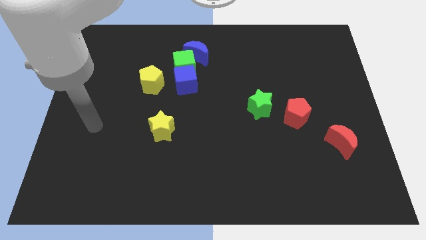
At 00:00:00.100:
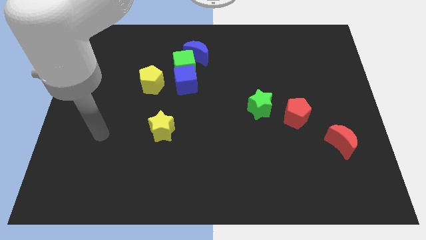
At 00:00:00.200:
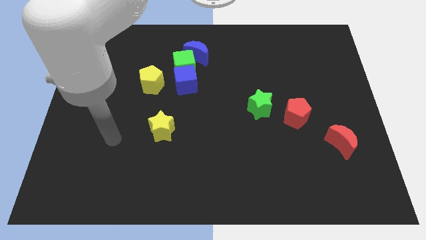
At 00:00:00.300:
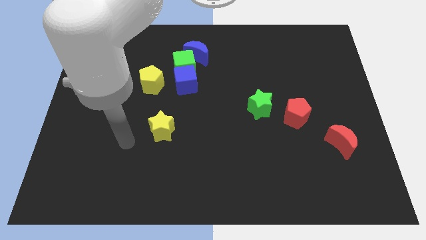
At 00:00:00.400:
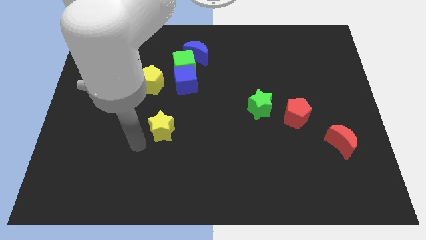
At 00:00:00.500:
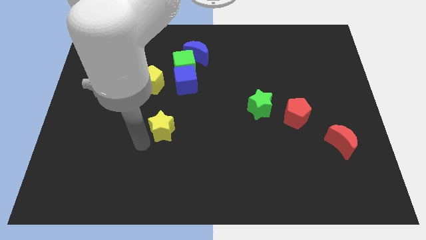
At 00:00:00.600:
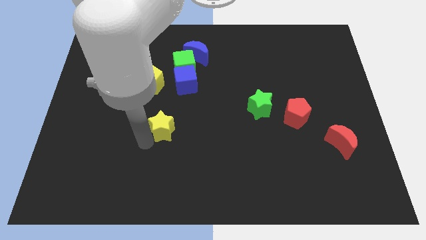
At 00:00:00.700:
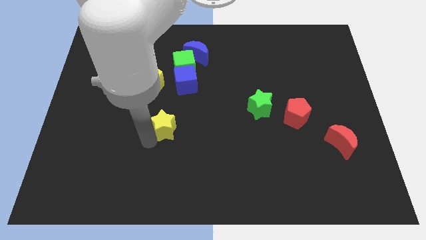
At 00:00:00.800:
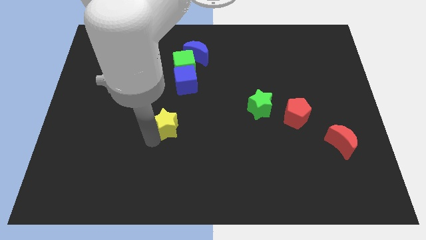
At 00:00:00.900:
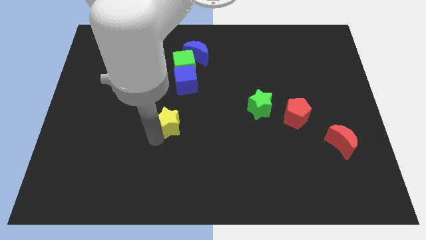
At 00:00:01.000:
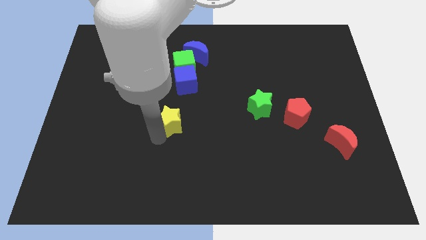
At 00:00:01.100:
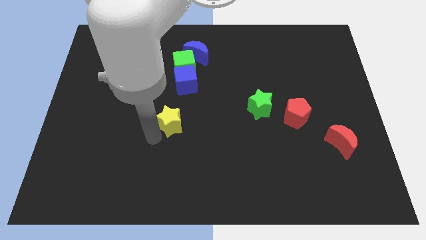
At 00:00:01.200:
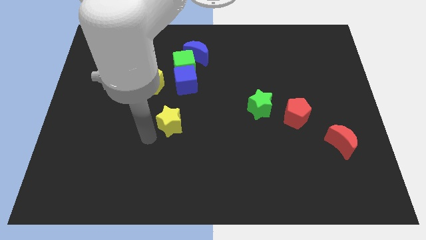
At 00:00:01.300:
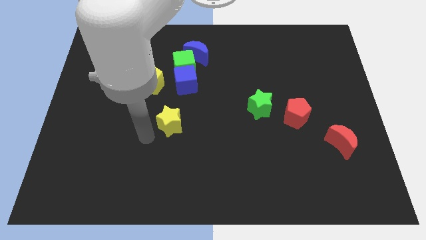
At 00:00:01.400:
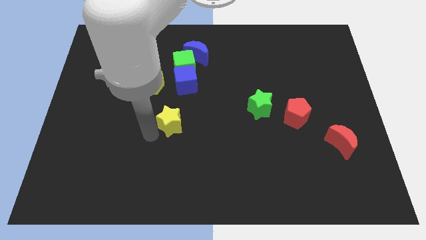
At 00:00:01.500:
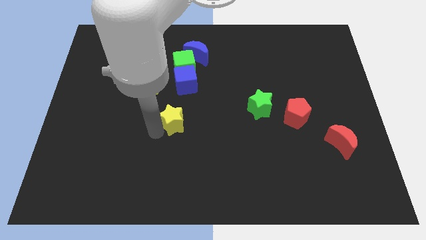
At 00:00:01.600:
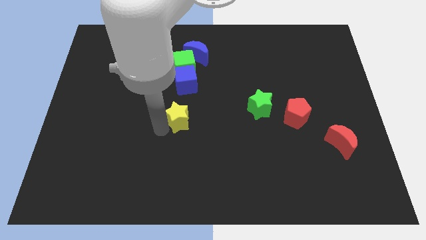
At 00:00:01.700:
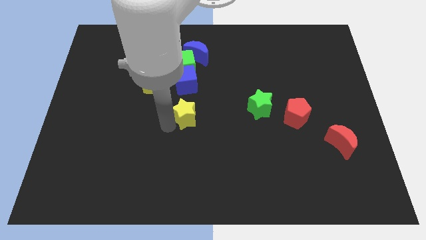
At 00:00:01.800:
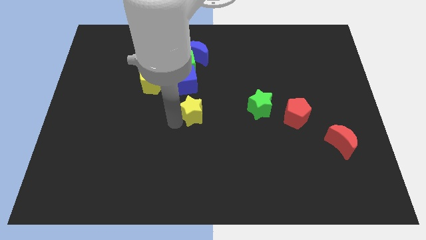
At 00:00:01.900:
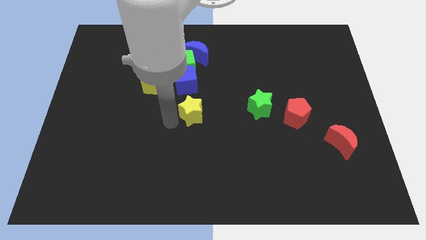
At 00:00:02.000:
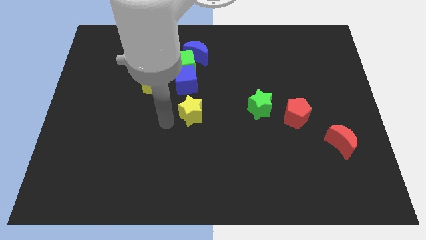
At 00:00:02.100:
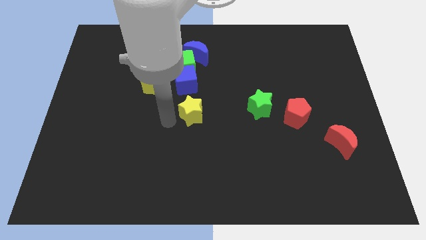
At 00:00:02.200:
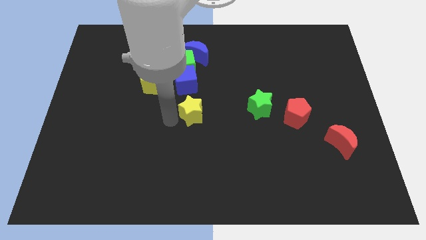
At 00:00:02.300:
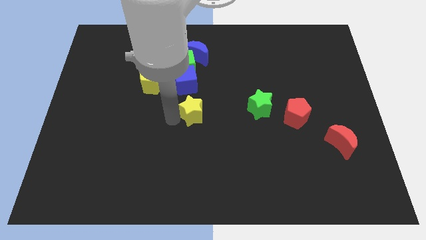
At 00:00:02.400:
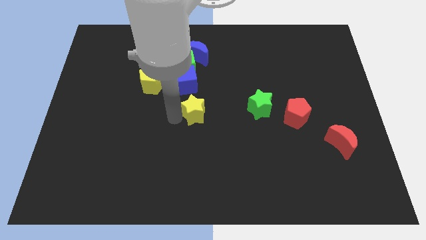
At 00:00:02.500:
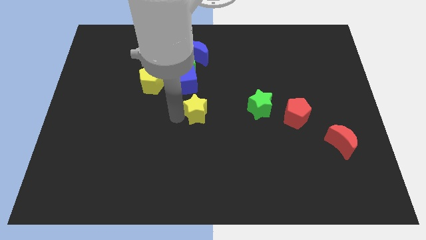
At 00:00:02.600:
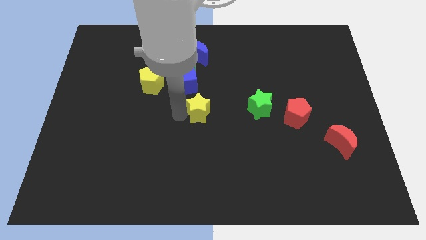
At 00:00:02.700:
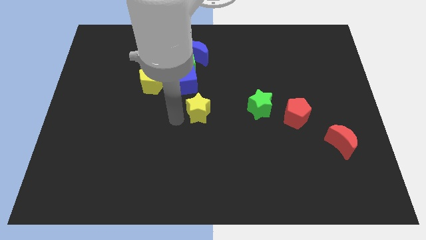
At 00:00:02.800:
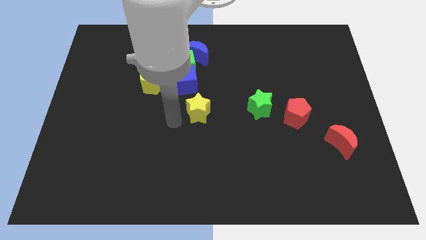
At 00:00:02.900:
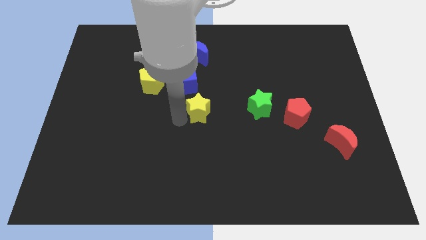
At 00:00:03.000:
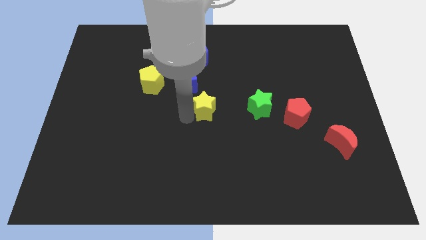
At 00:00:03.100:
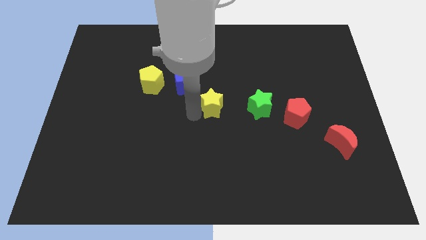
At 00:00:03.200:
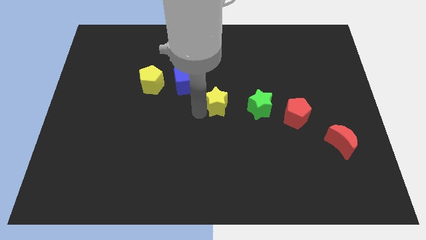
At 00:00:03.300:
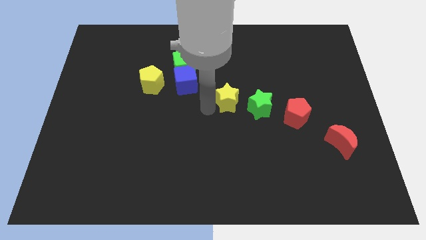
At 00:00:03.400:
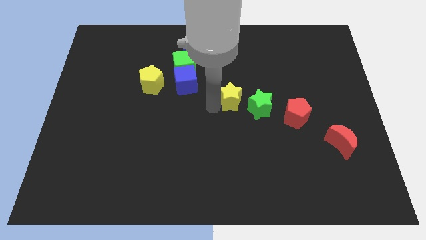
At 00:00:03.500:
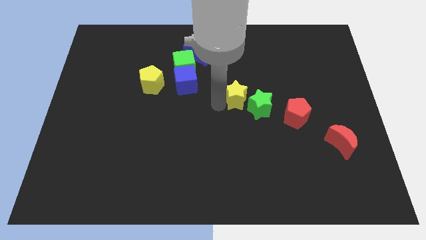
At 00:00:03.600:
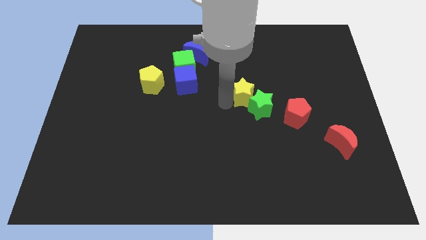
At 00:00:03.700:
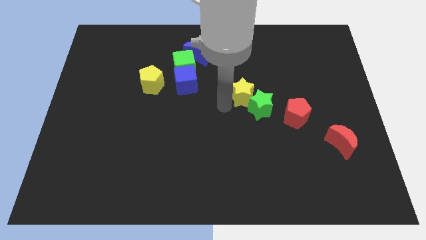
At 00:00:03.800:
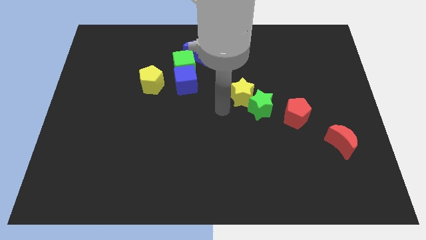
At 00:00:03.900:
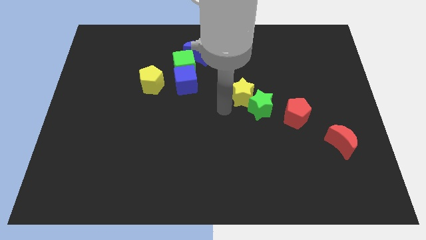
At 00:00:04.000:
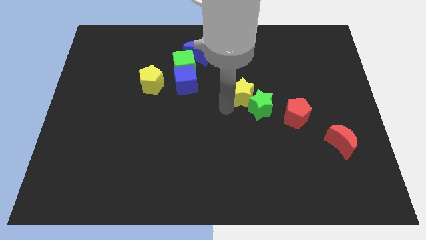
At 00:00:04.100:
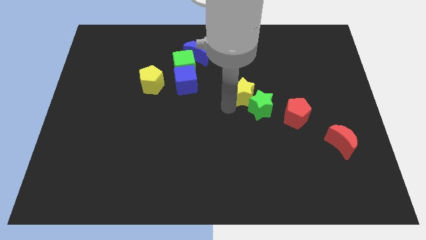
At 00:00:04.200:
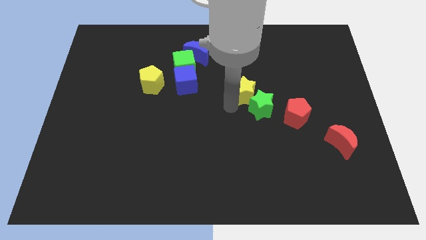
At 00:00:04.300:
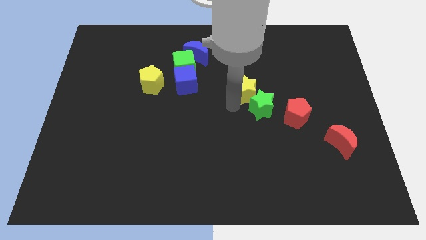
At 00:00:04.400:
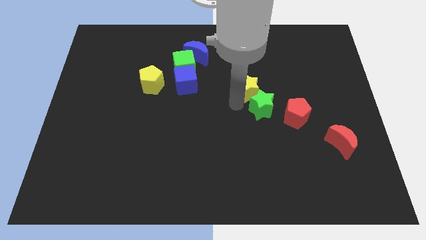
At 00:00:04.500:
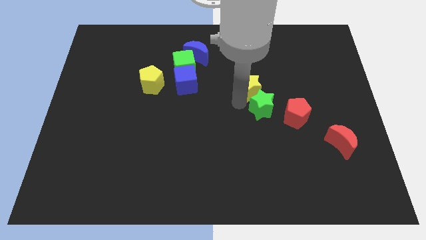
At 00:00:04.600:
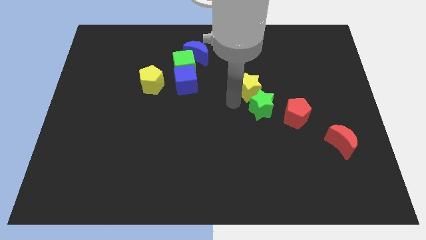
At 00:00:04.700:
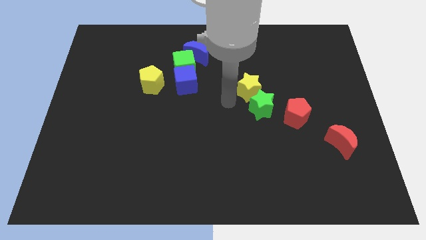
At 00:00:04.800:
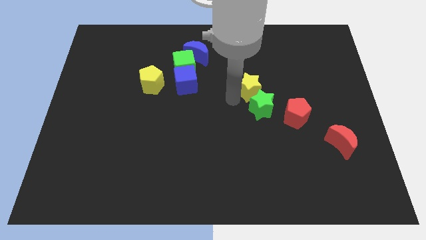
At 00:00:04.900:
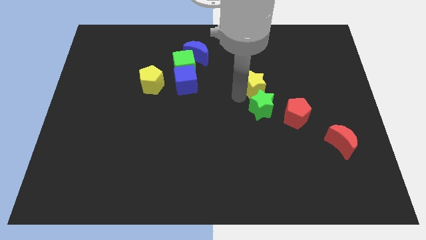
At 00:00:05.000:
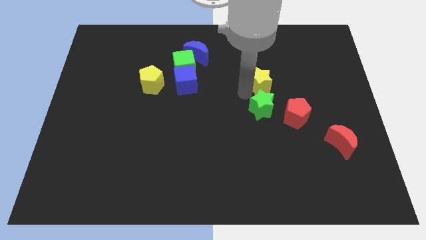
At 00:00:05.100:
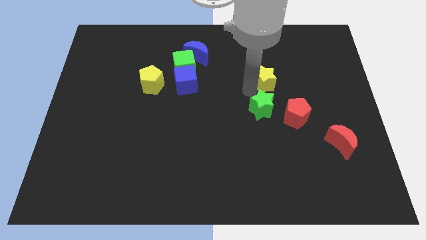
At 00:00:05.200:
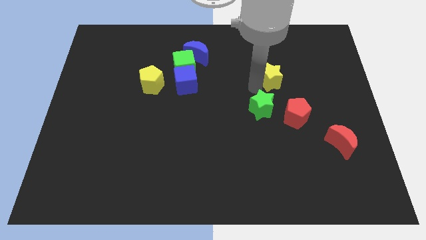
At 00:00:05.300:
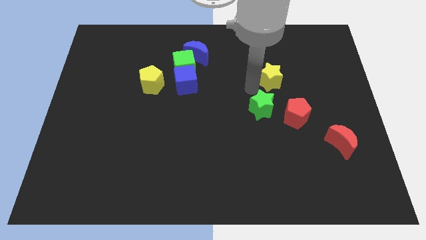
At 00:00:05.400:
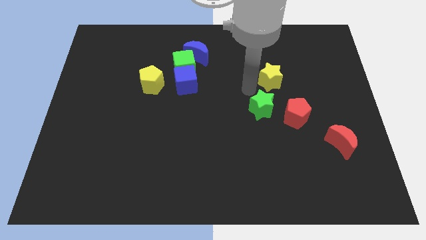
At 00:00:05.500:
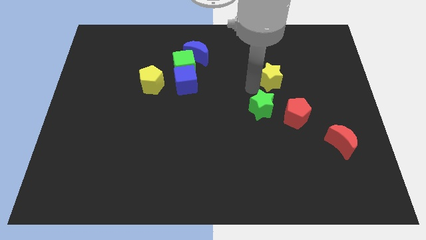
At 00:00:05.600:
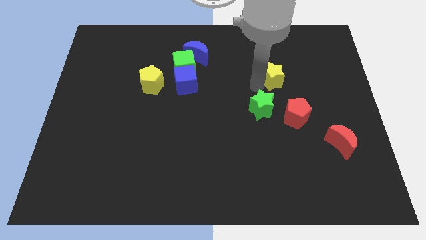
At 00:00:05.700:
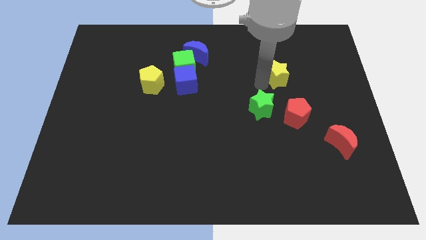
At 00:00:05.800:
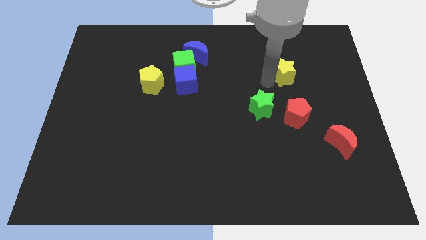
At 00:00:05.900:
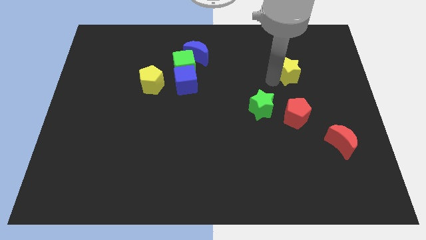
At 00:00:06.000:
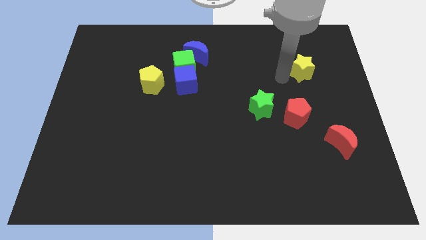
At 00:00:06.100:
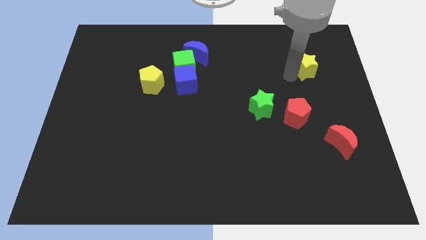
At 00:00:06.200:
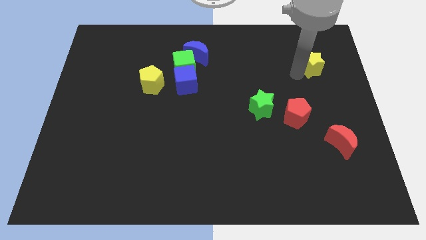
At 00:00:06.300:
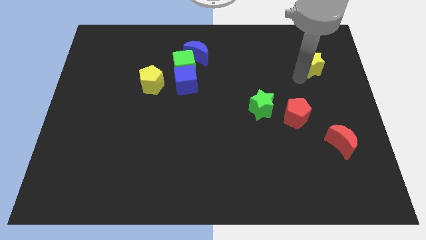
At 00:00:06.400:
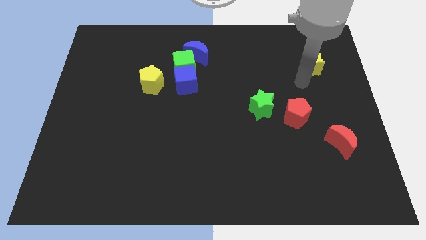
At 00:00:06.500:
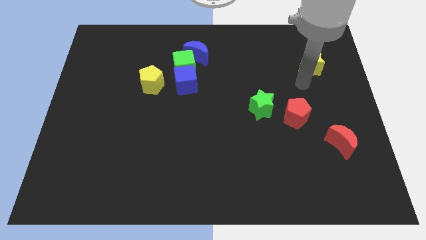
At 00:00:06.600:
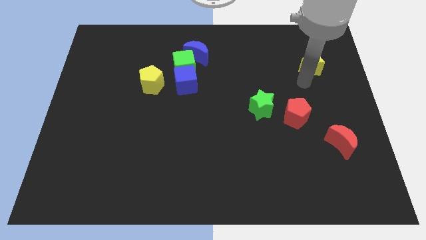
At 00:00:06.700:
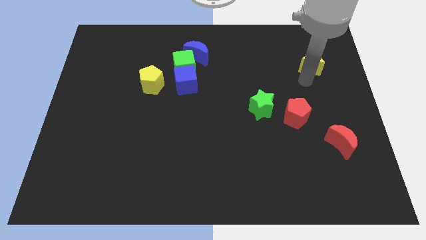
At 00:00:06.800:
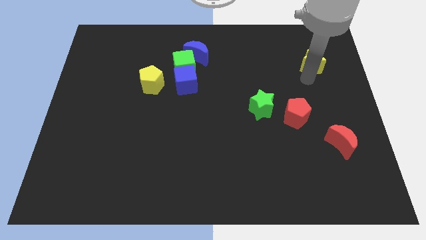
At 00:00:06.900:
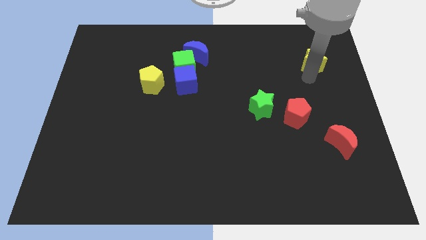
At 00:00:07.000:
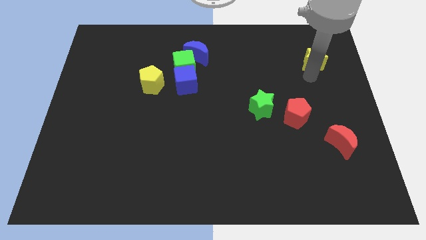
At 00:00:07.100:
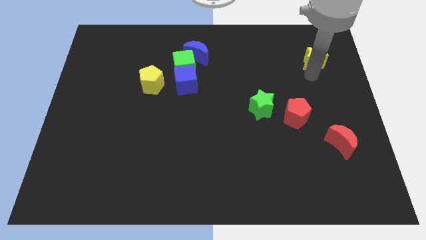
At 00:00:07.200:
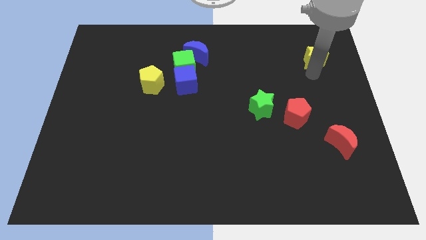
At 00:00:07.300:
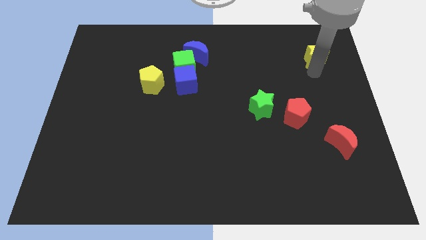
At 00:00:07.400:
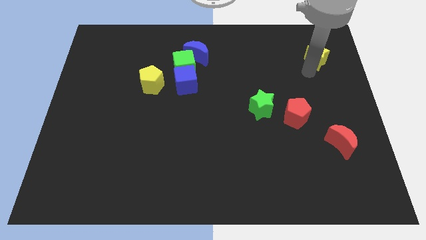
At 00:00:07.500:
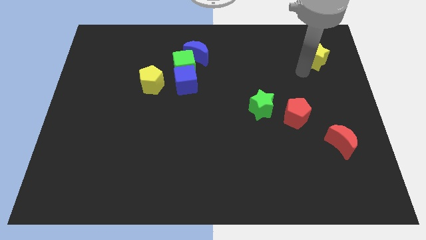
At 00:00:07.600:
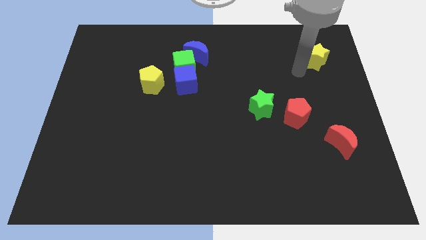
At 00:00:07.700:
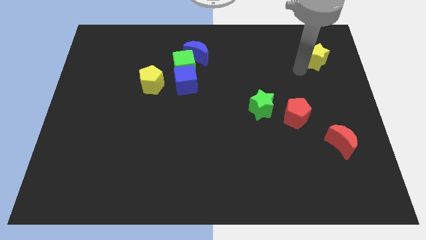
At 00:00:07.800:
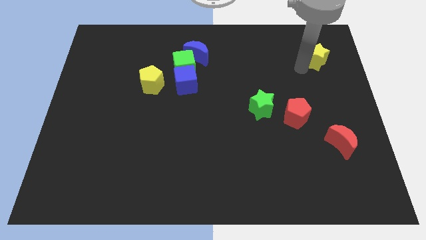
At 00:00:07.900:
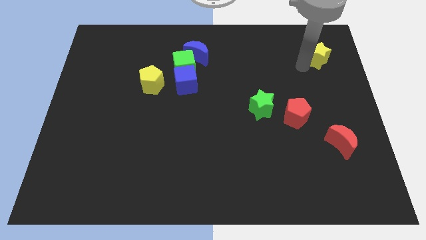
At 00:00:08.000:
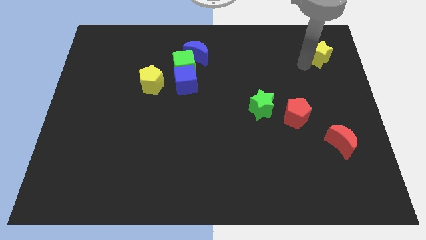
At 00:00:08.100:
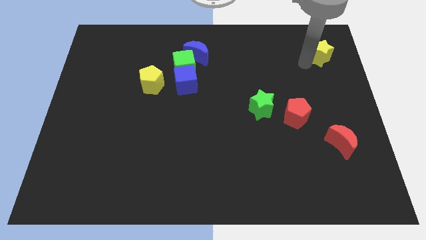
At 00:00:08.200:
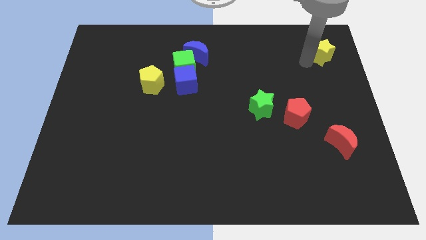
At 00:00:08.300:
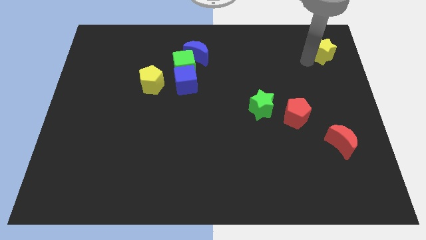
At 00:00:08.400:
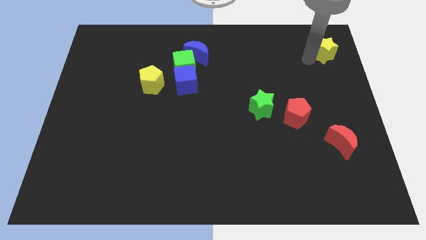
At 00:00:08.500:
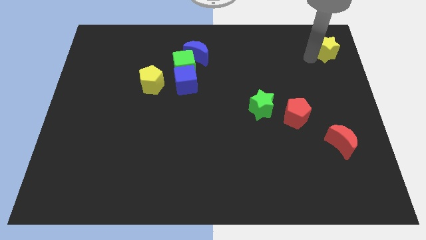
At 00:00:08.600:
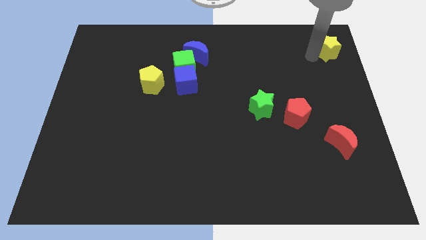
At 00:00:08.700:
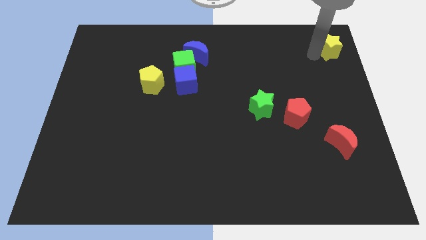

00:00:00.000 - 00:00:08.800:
push the yellow star to the top right corner
